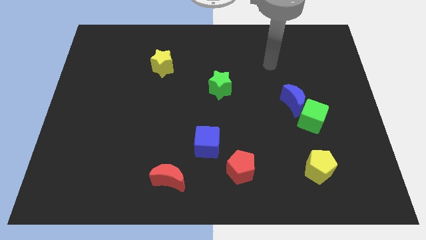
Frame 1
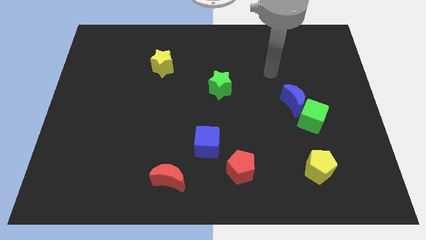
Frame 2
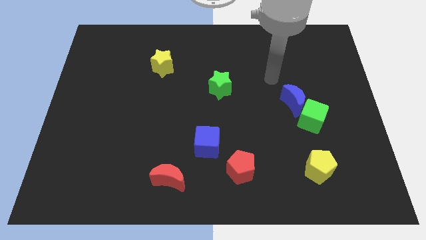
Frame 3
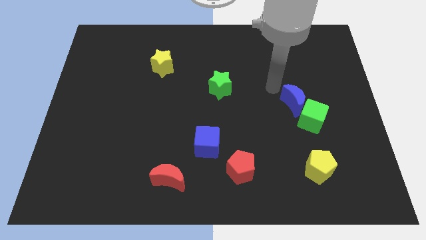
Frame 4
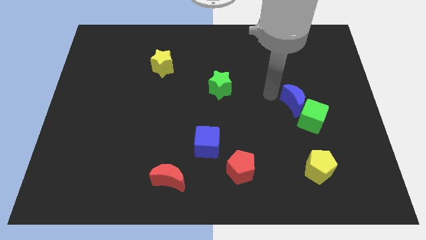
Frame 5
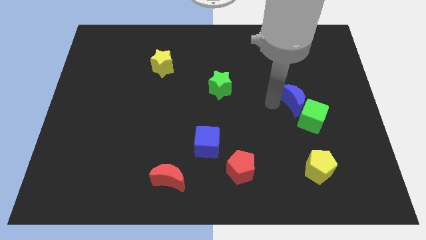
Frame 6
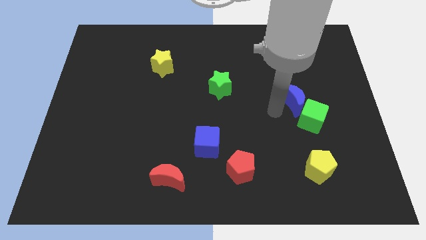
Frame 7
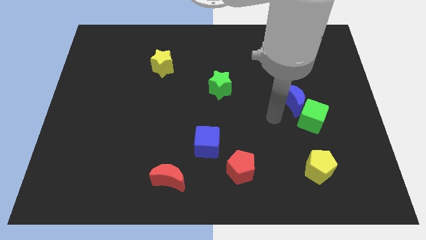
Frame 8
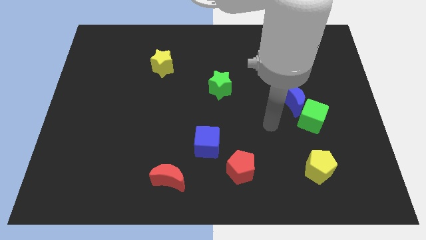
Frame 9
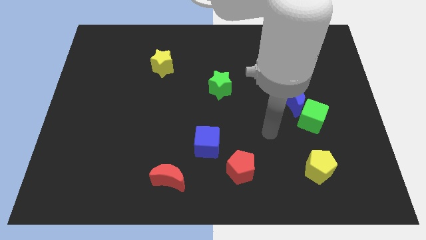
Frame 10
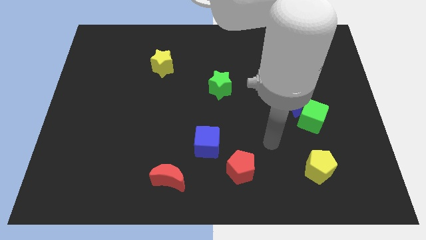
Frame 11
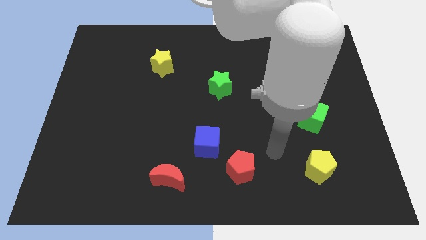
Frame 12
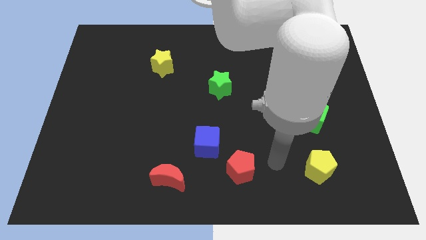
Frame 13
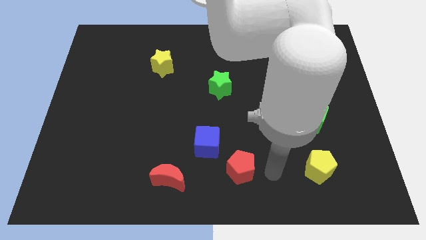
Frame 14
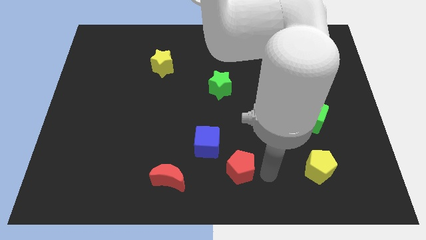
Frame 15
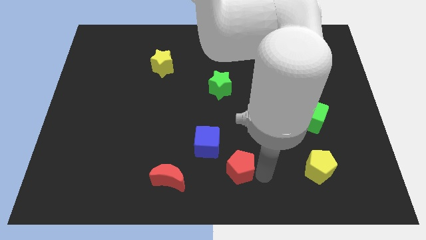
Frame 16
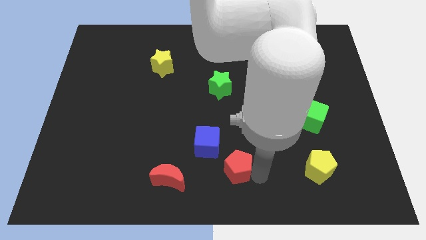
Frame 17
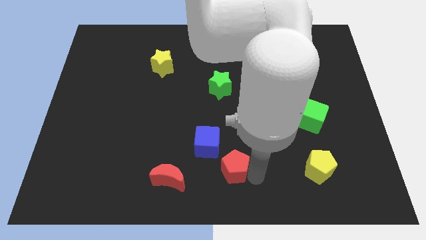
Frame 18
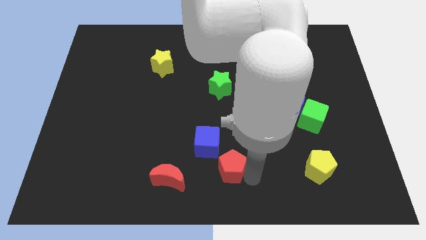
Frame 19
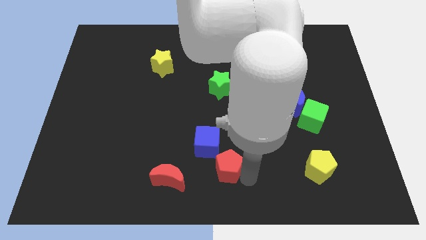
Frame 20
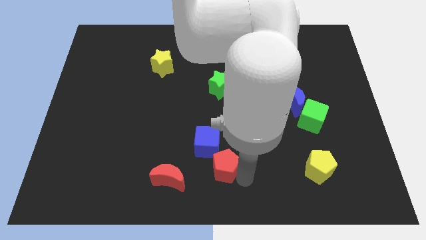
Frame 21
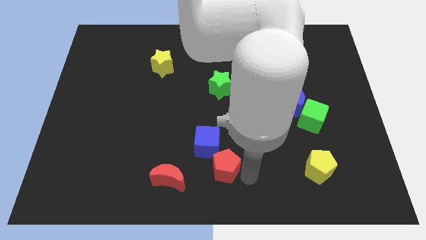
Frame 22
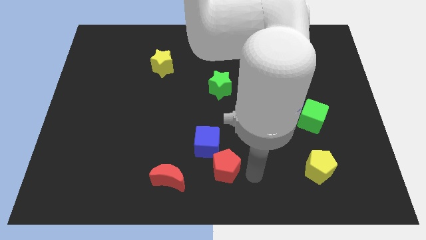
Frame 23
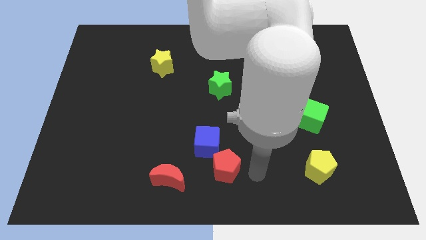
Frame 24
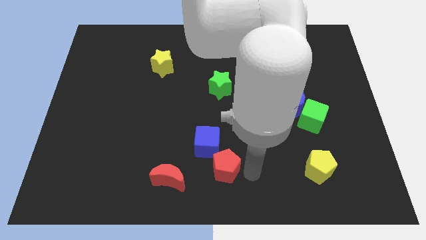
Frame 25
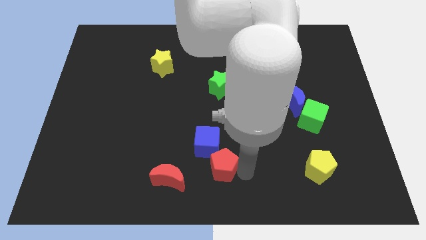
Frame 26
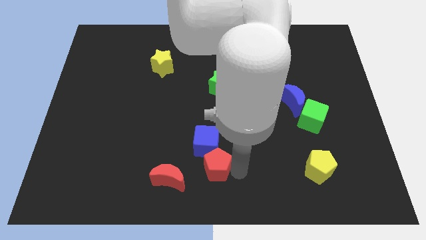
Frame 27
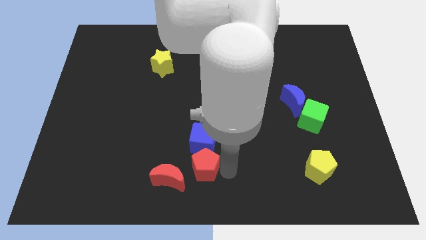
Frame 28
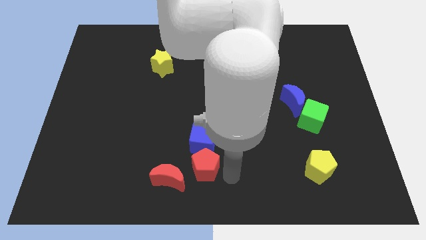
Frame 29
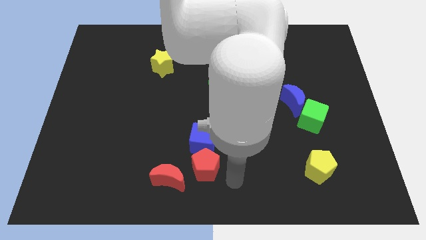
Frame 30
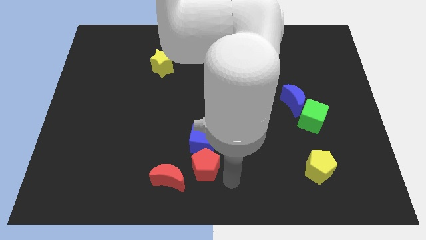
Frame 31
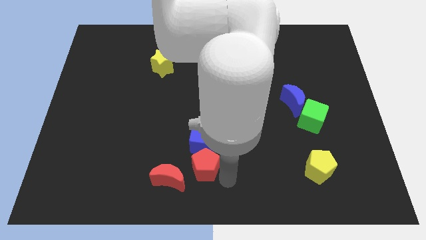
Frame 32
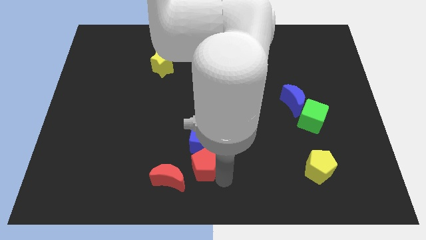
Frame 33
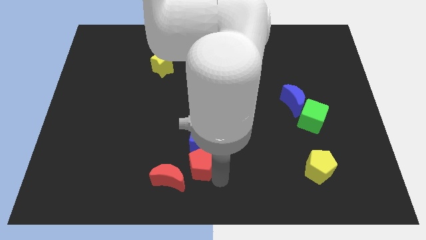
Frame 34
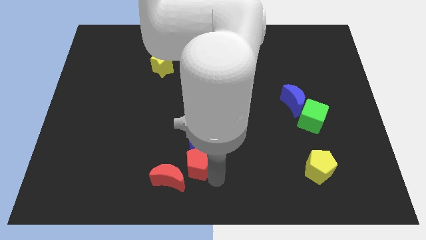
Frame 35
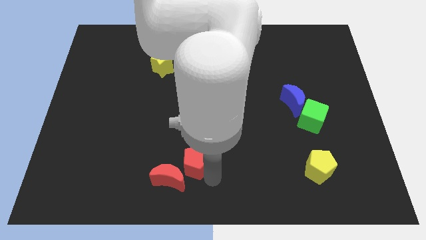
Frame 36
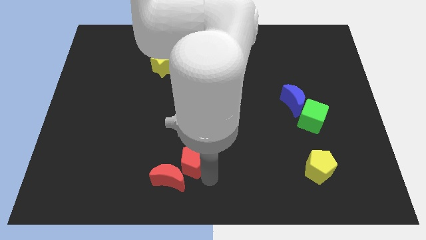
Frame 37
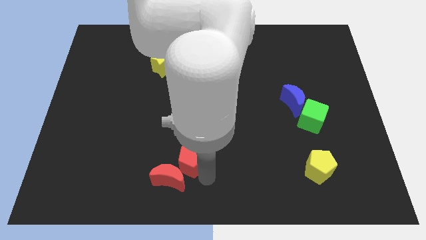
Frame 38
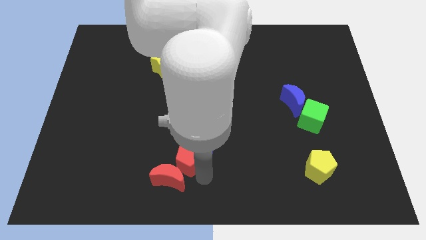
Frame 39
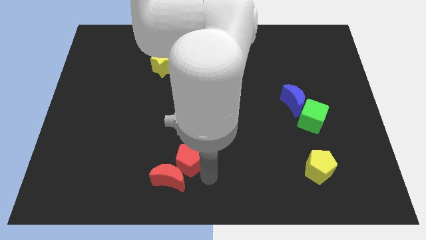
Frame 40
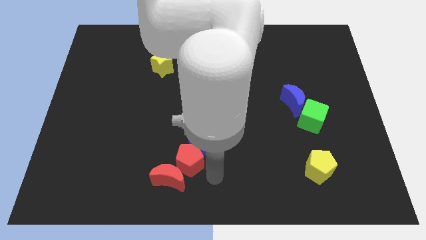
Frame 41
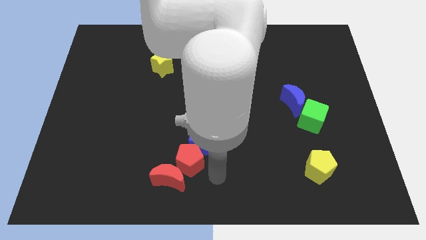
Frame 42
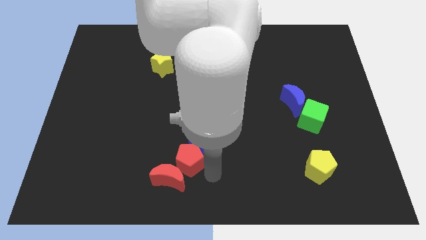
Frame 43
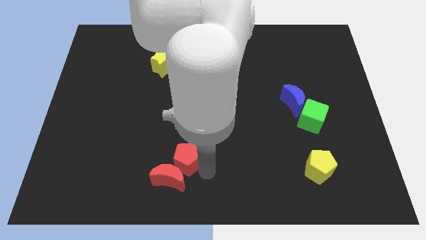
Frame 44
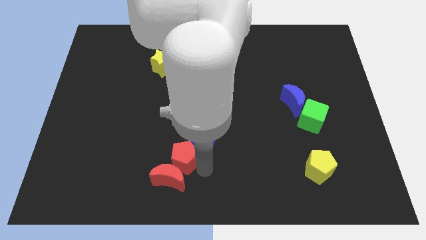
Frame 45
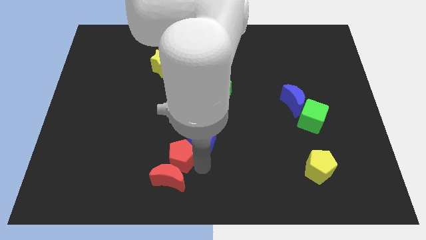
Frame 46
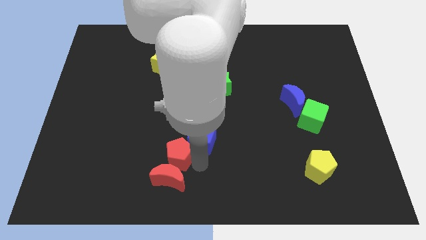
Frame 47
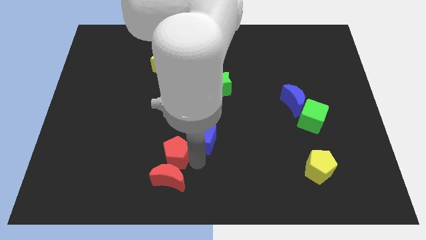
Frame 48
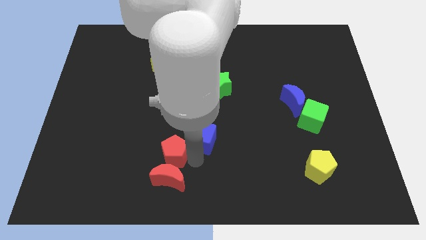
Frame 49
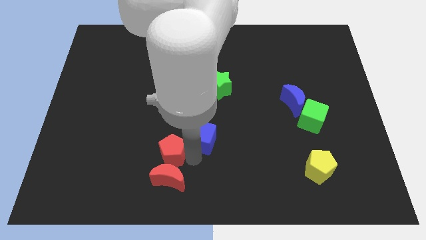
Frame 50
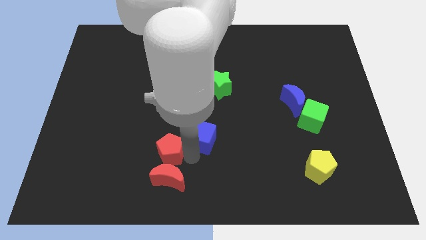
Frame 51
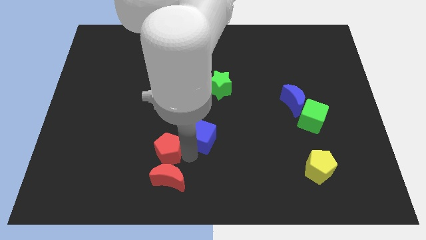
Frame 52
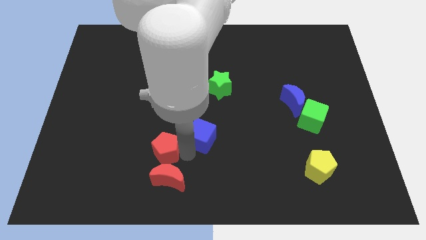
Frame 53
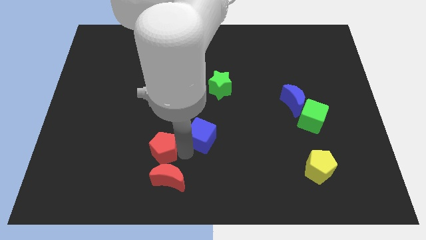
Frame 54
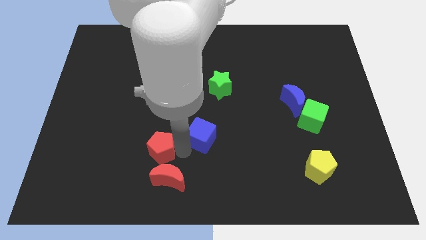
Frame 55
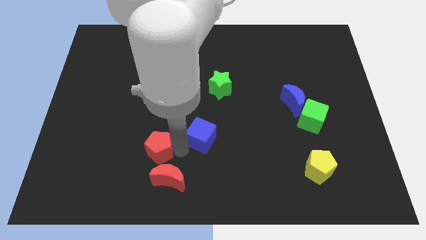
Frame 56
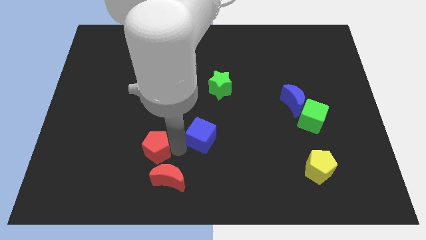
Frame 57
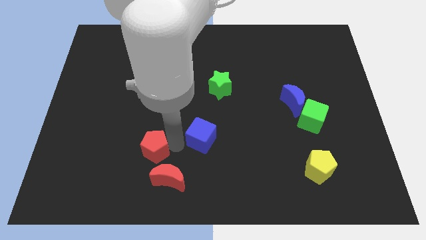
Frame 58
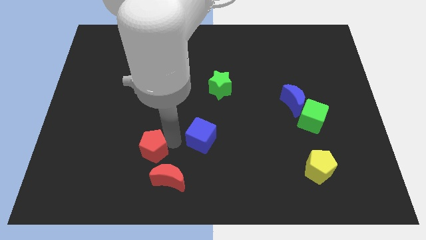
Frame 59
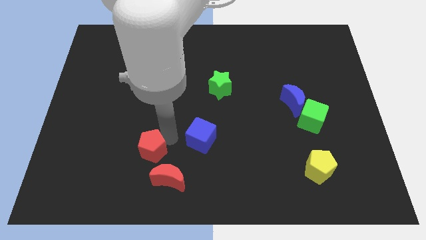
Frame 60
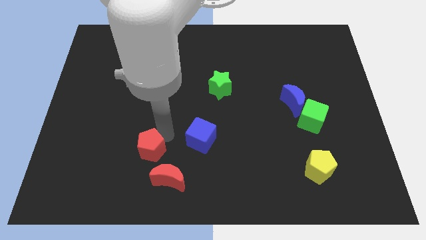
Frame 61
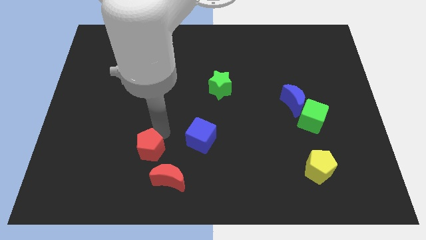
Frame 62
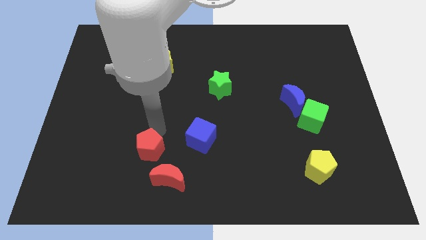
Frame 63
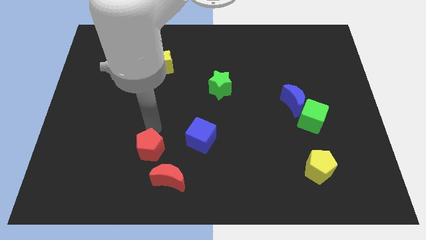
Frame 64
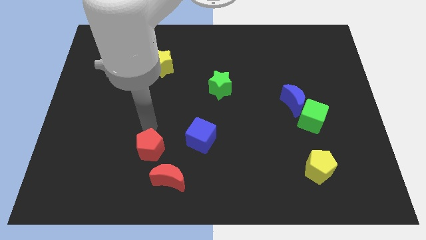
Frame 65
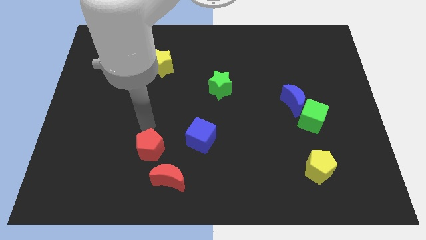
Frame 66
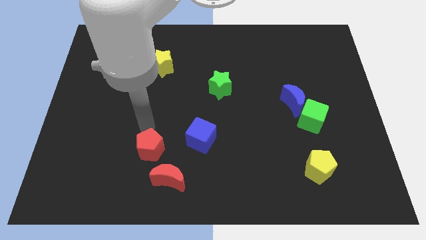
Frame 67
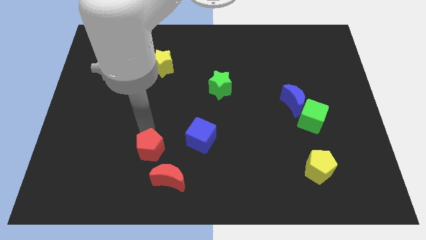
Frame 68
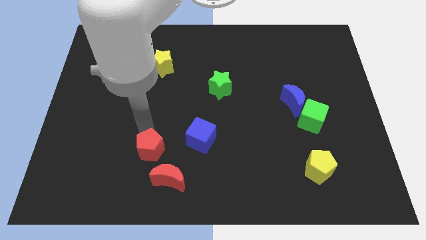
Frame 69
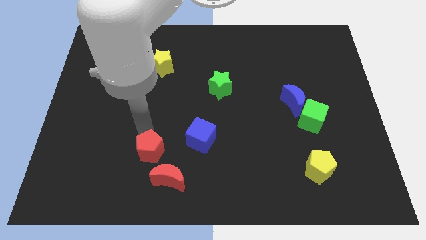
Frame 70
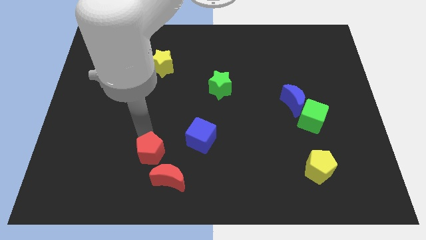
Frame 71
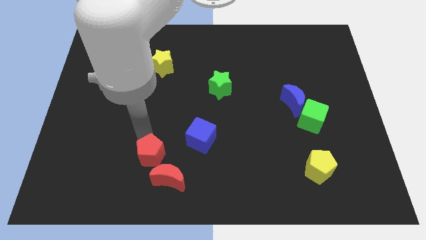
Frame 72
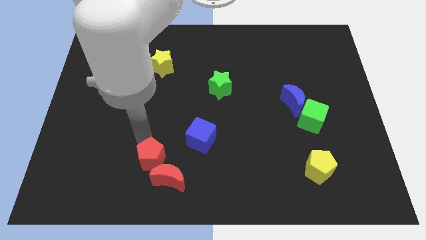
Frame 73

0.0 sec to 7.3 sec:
slide the red pentagon left of the red moon
